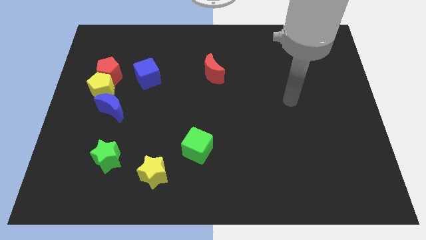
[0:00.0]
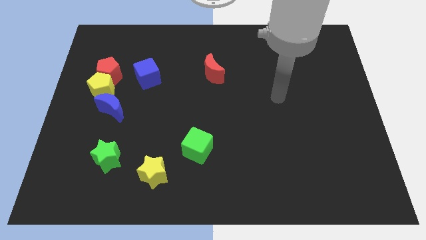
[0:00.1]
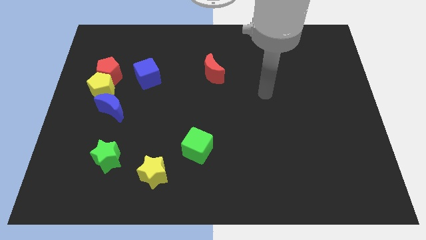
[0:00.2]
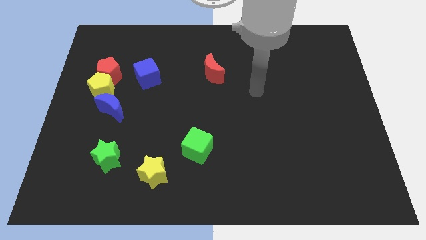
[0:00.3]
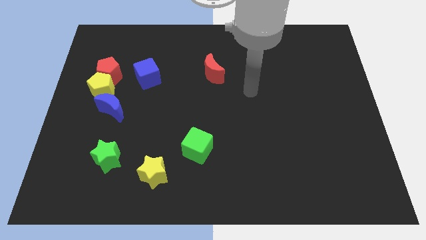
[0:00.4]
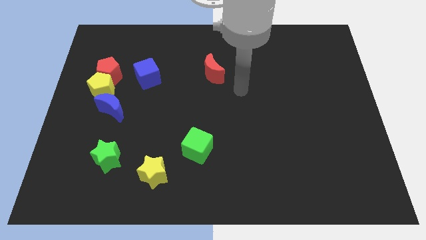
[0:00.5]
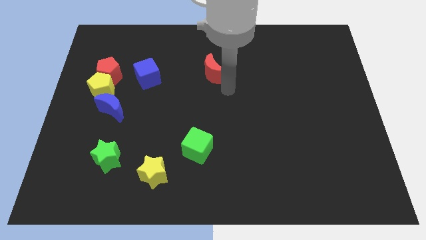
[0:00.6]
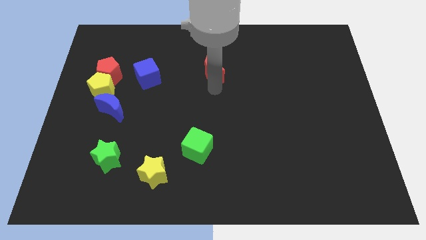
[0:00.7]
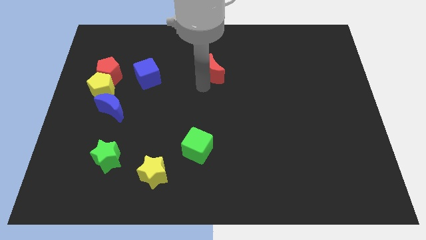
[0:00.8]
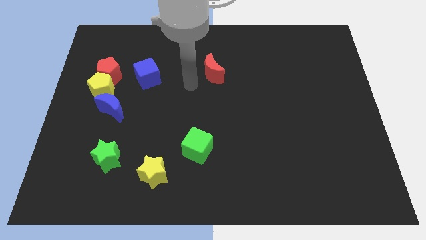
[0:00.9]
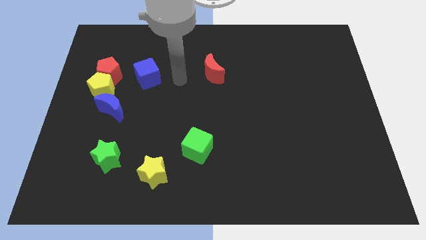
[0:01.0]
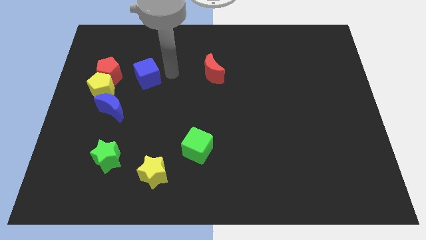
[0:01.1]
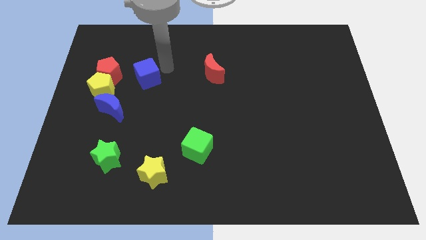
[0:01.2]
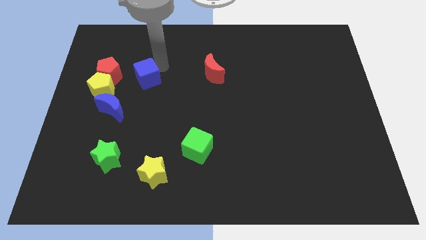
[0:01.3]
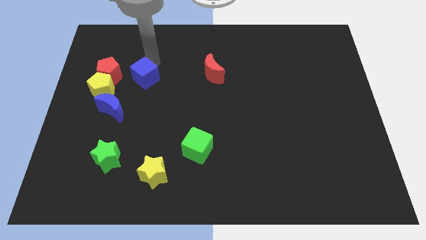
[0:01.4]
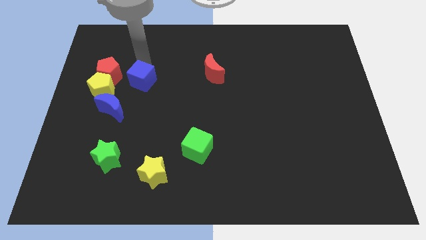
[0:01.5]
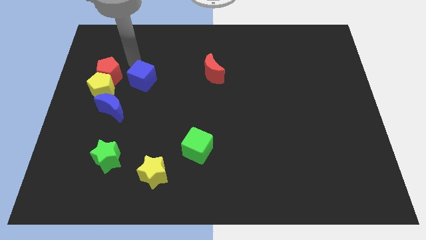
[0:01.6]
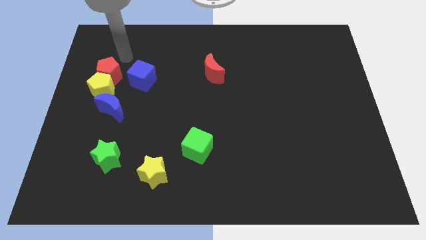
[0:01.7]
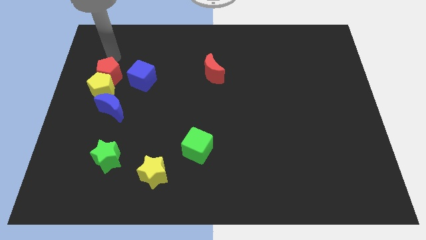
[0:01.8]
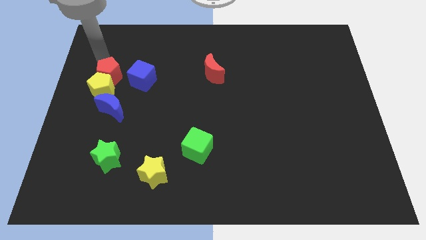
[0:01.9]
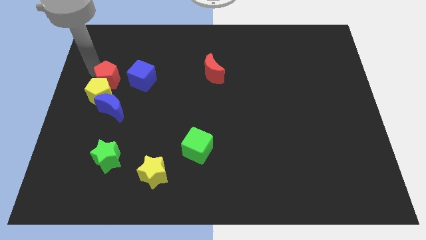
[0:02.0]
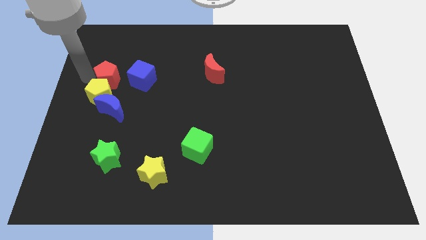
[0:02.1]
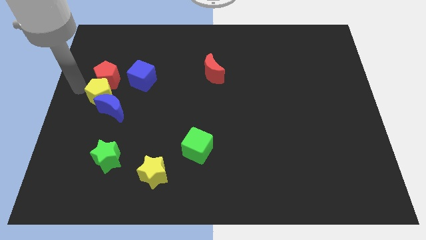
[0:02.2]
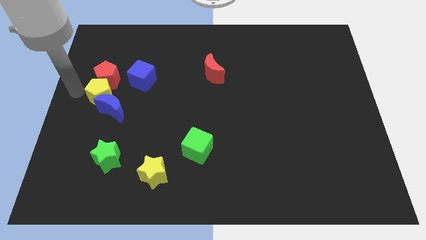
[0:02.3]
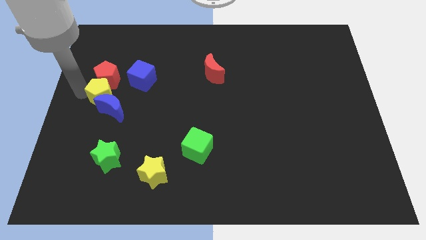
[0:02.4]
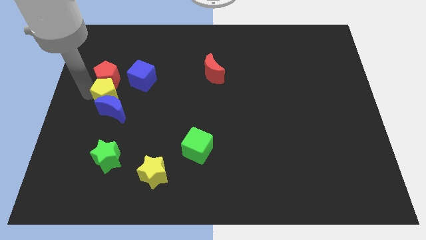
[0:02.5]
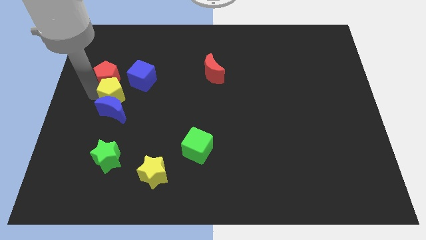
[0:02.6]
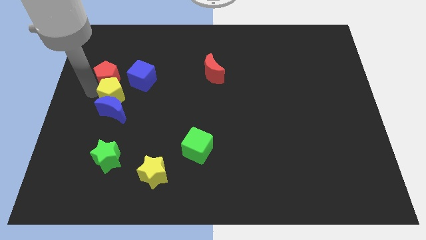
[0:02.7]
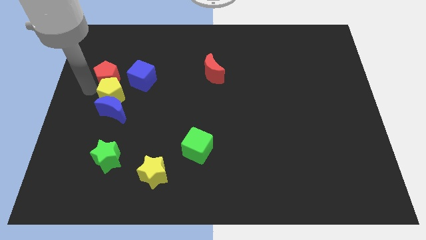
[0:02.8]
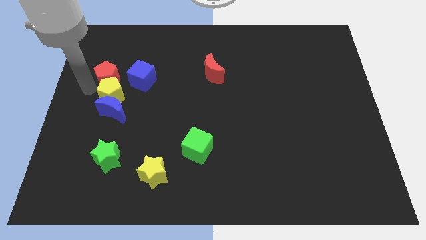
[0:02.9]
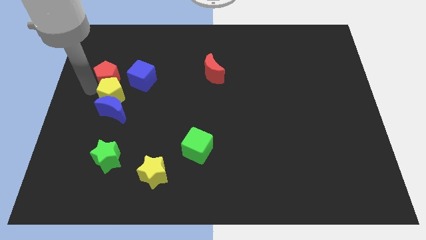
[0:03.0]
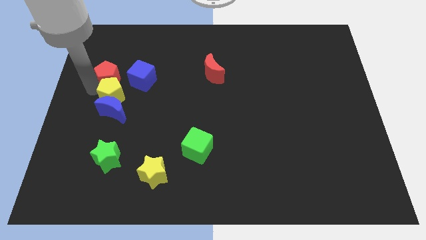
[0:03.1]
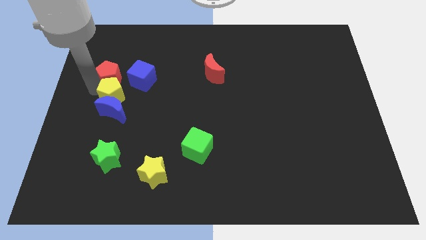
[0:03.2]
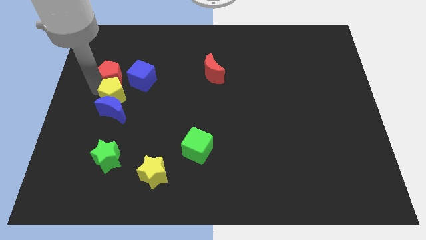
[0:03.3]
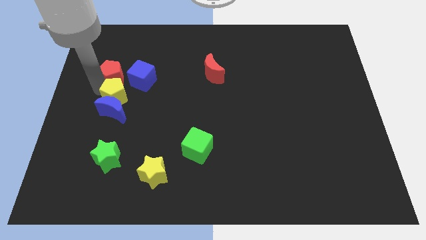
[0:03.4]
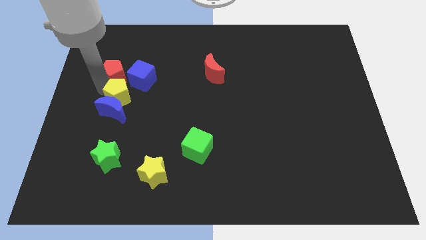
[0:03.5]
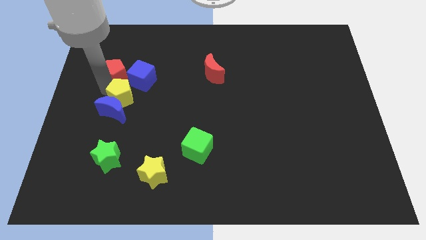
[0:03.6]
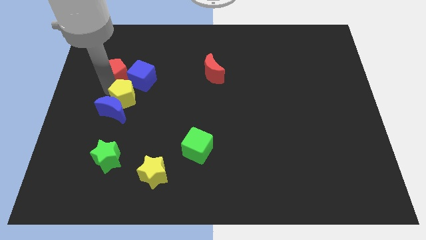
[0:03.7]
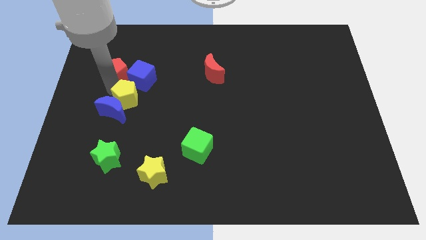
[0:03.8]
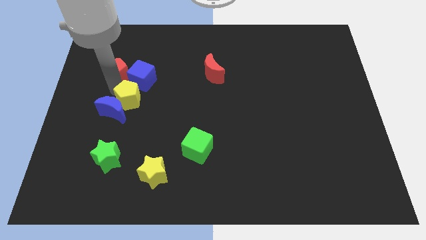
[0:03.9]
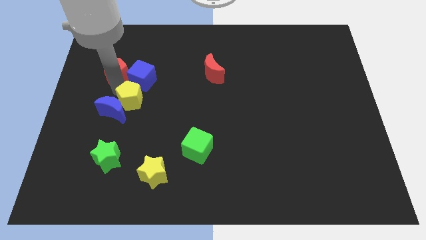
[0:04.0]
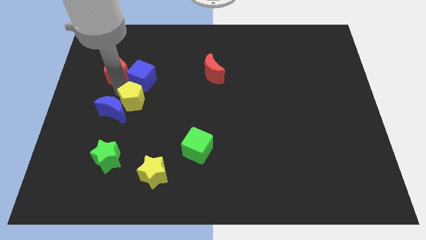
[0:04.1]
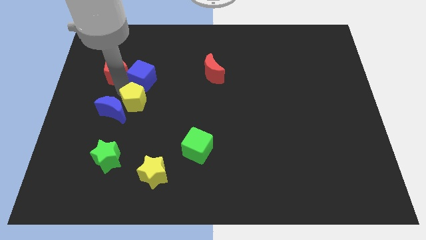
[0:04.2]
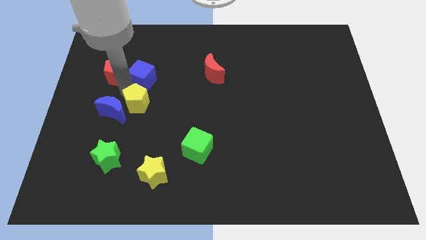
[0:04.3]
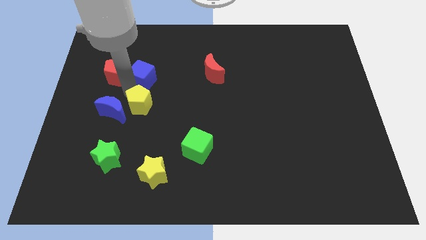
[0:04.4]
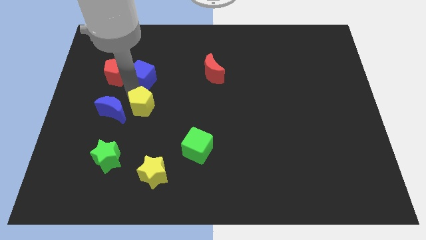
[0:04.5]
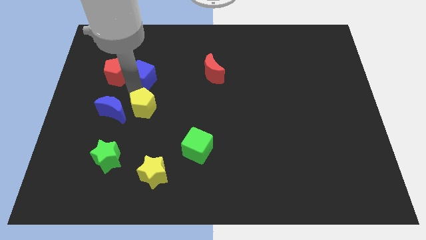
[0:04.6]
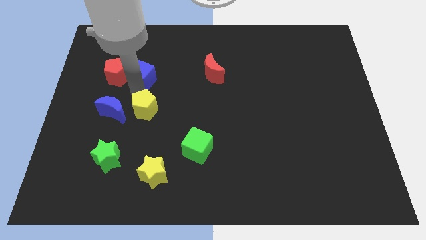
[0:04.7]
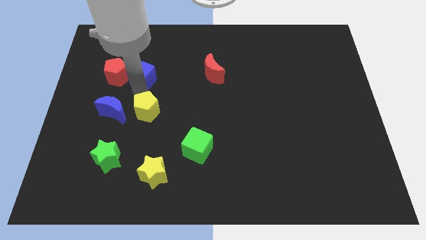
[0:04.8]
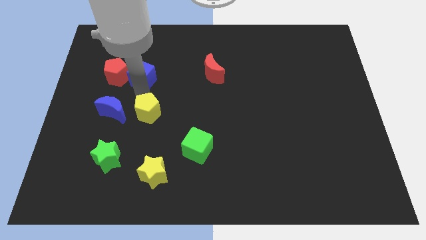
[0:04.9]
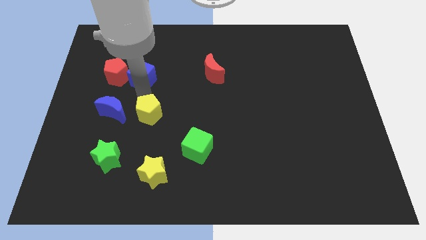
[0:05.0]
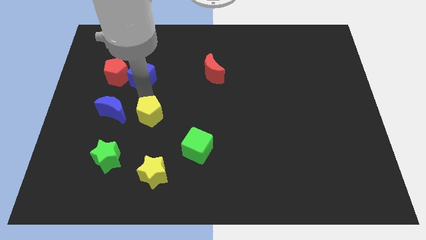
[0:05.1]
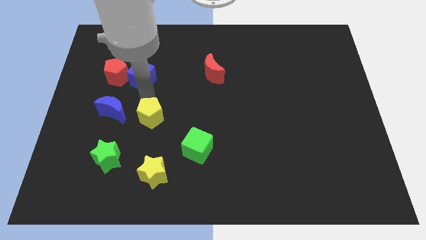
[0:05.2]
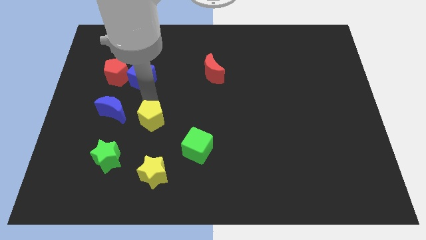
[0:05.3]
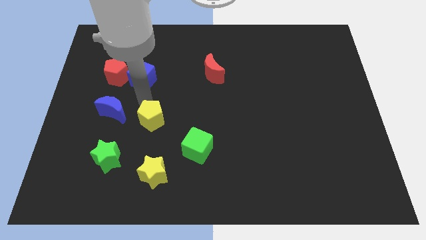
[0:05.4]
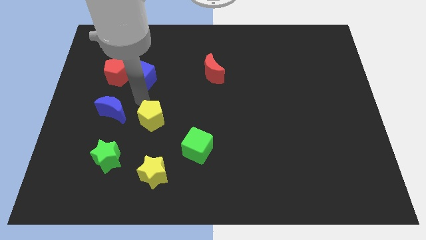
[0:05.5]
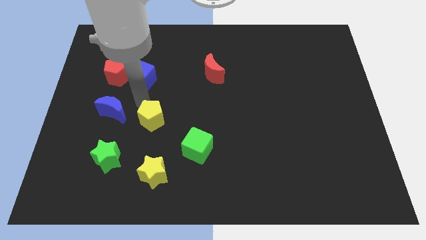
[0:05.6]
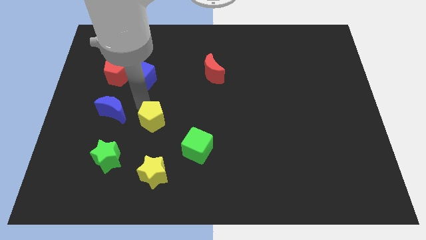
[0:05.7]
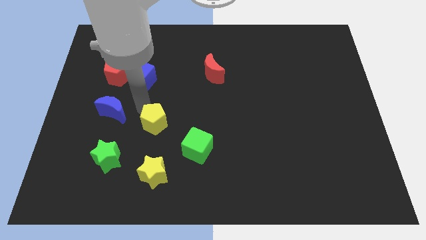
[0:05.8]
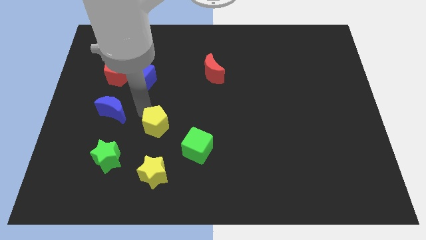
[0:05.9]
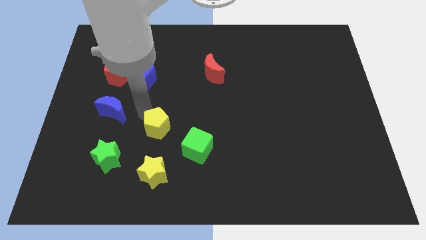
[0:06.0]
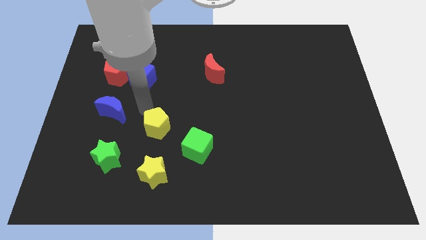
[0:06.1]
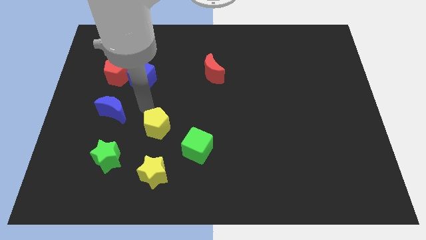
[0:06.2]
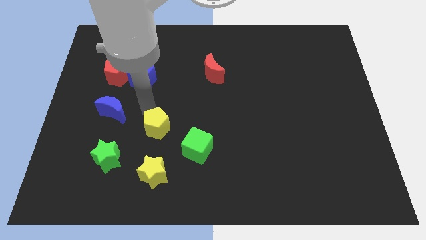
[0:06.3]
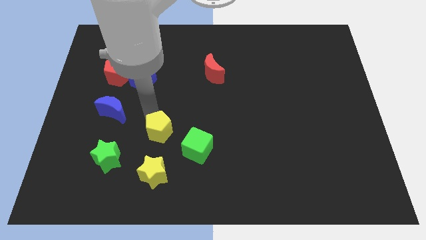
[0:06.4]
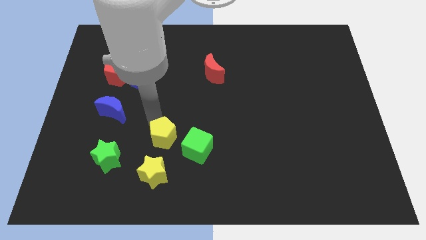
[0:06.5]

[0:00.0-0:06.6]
move the yellow pentagon down and then right

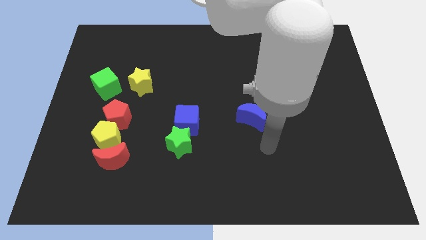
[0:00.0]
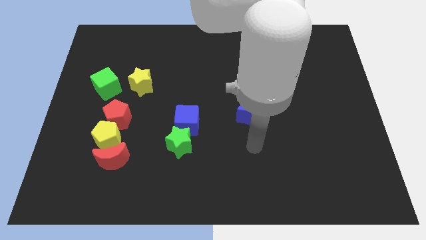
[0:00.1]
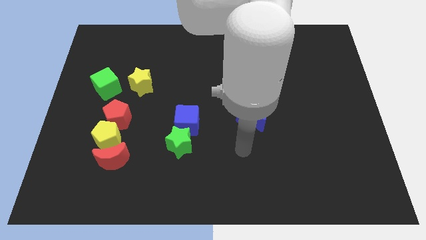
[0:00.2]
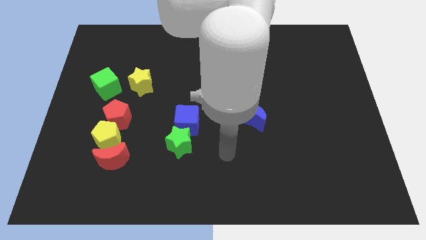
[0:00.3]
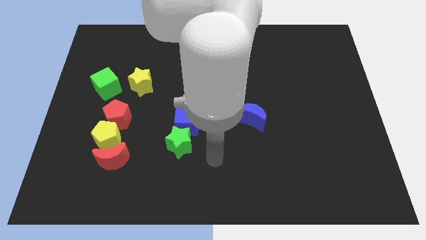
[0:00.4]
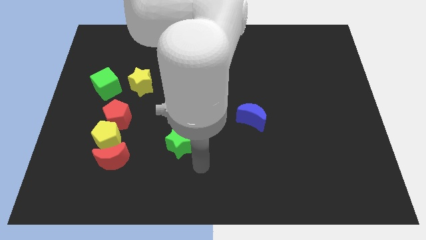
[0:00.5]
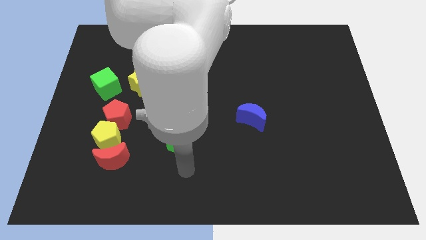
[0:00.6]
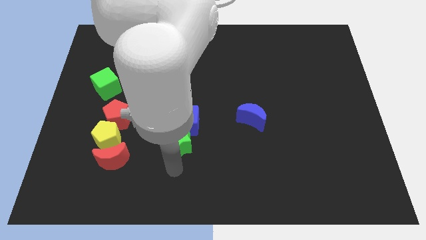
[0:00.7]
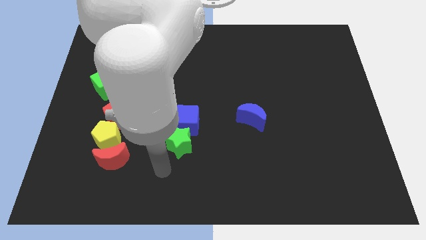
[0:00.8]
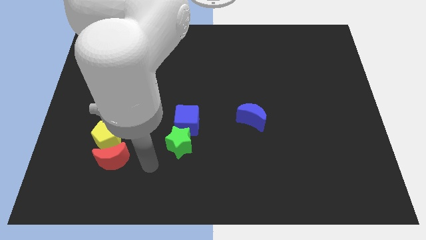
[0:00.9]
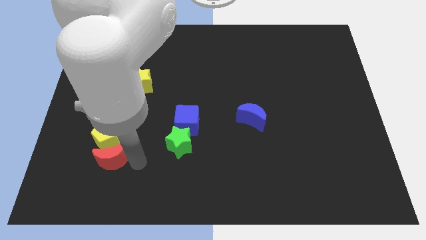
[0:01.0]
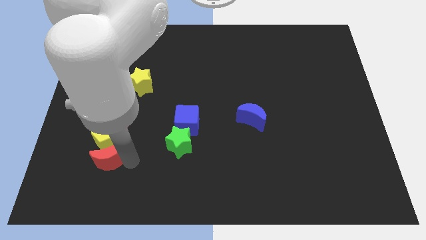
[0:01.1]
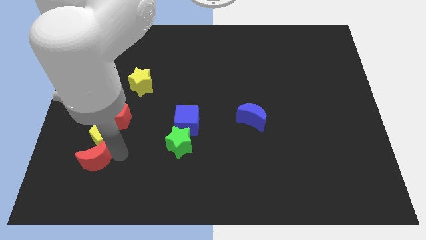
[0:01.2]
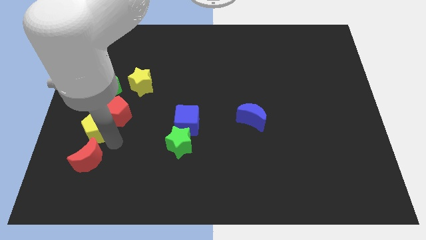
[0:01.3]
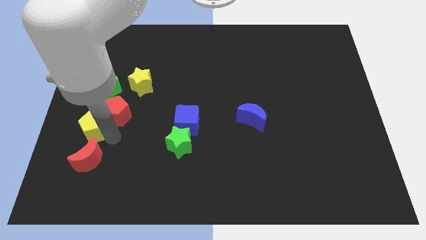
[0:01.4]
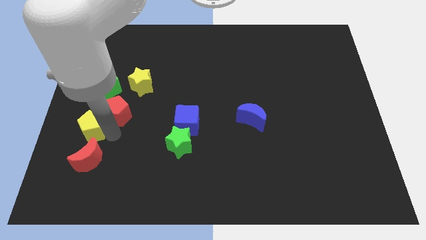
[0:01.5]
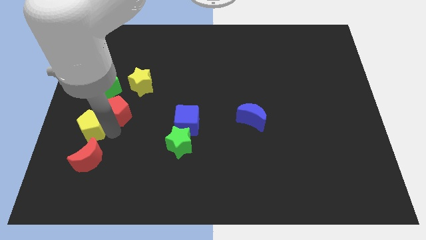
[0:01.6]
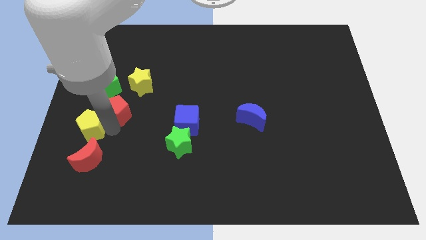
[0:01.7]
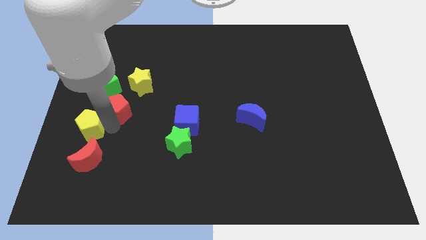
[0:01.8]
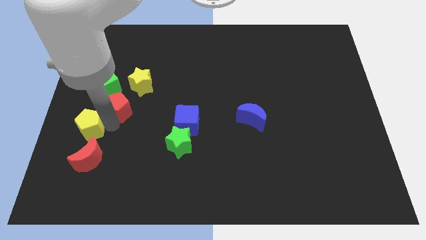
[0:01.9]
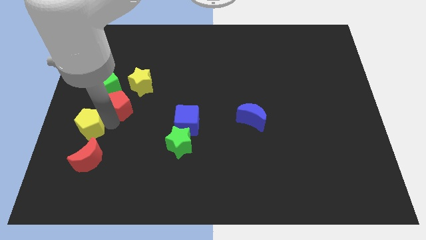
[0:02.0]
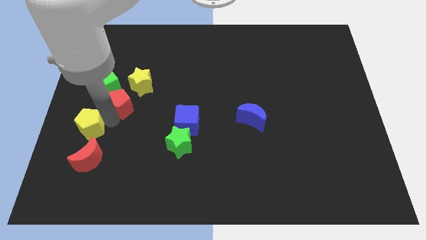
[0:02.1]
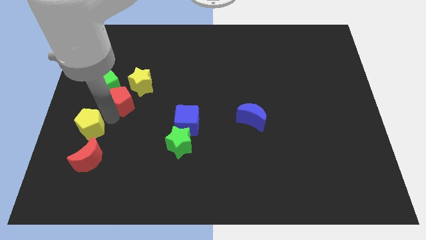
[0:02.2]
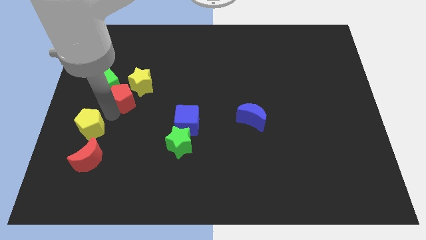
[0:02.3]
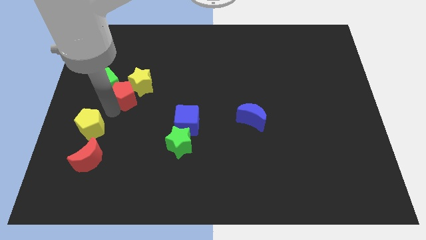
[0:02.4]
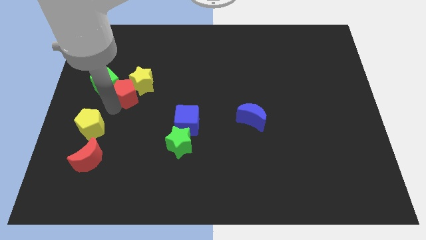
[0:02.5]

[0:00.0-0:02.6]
move the red pentagon a bit up
